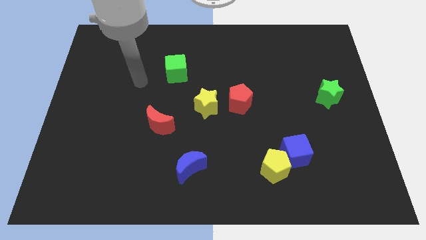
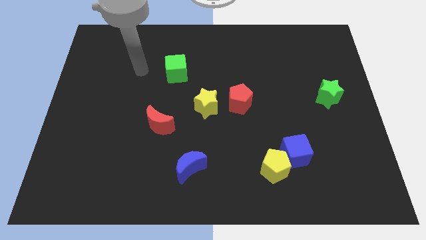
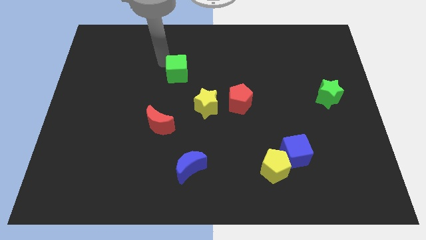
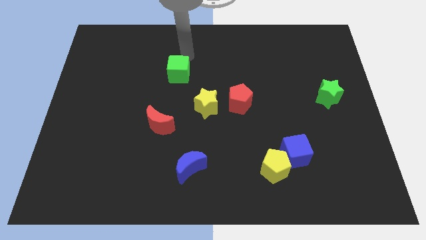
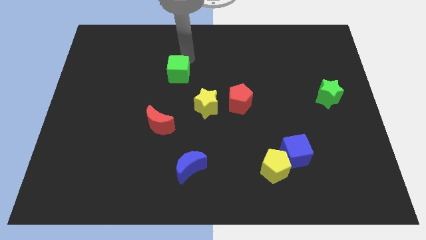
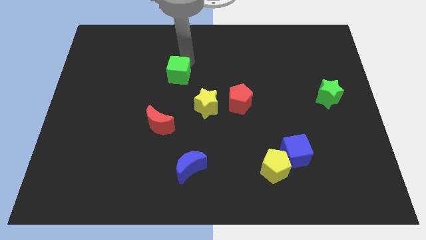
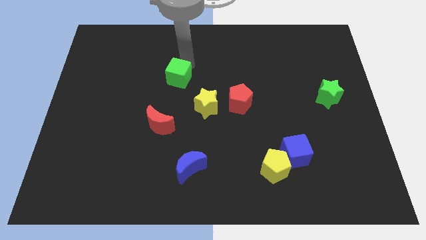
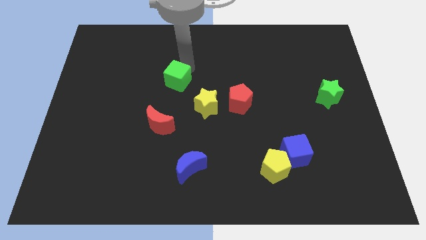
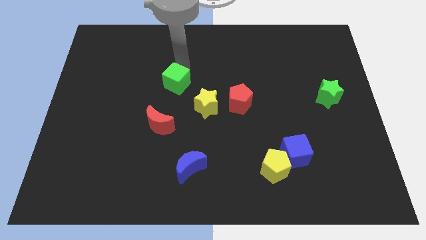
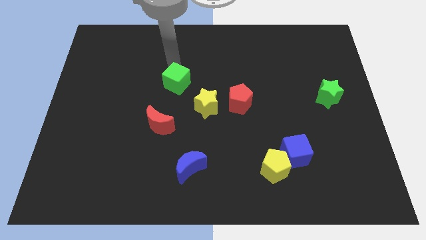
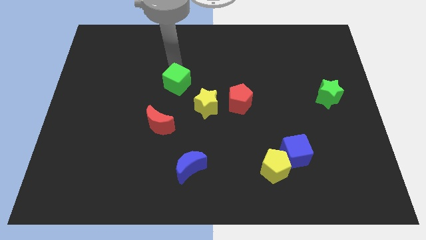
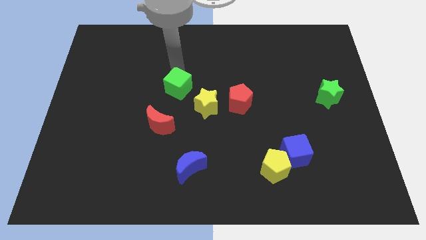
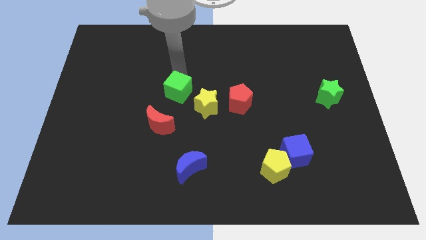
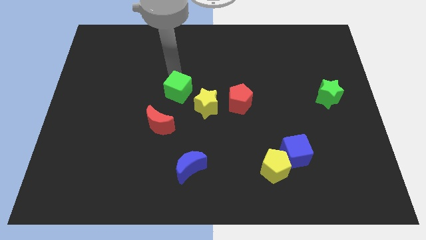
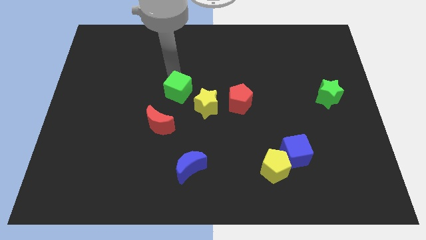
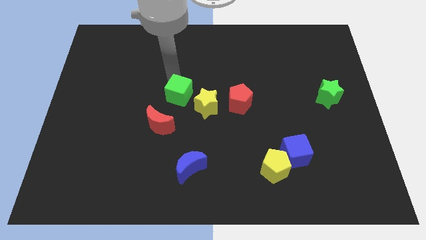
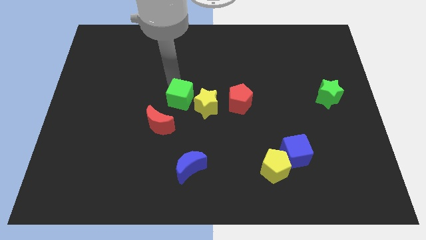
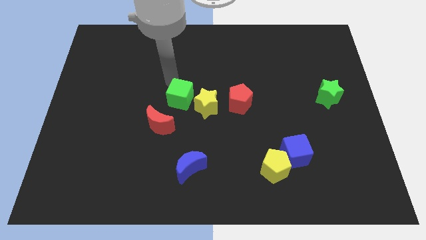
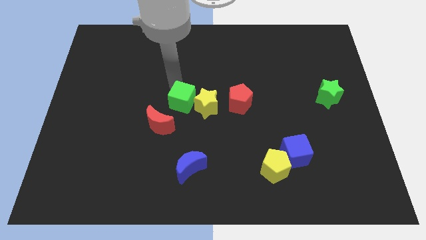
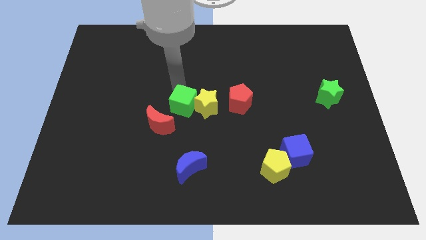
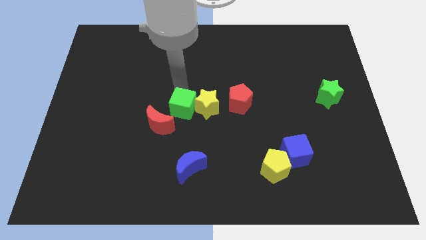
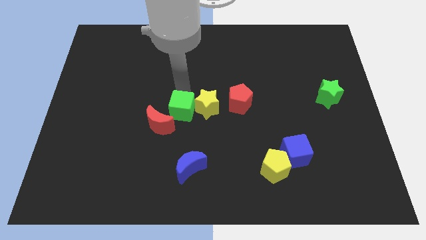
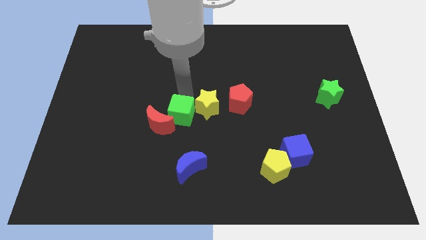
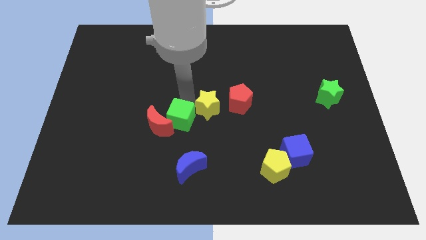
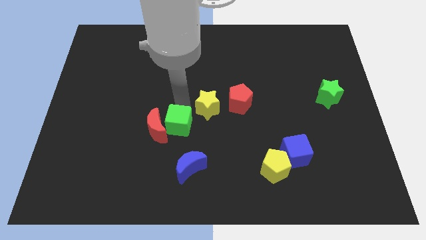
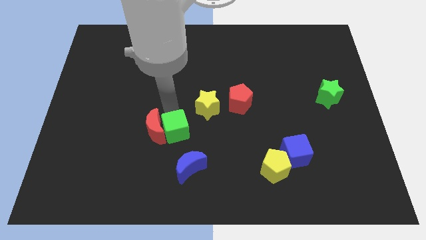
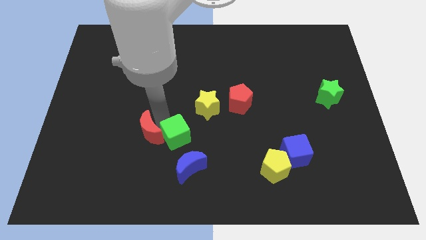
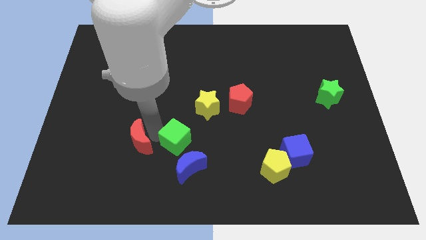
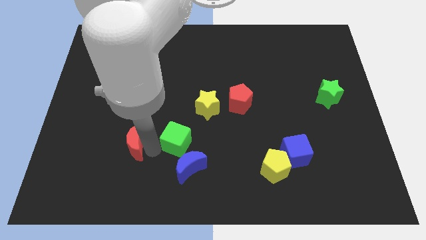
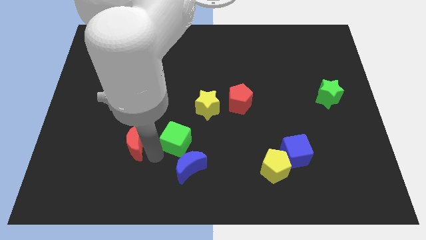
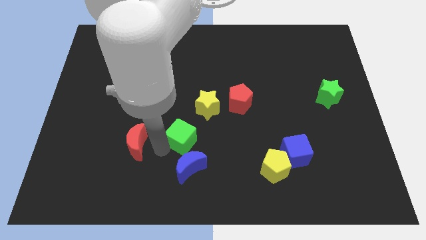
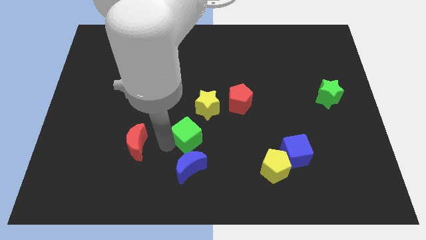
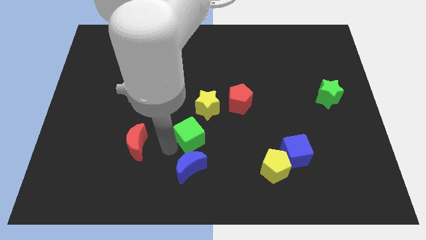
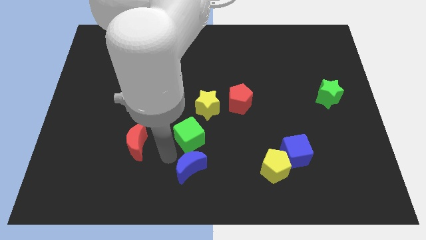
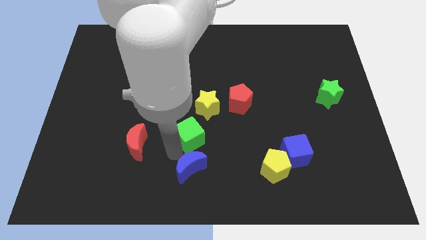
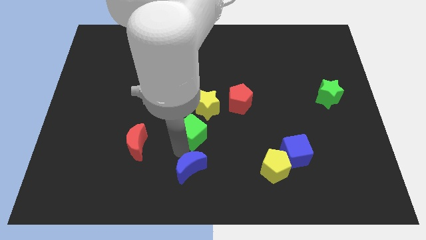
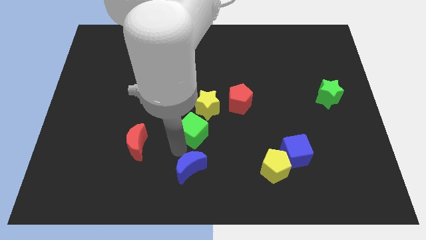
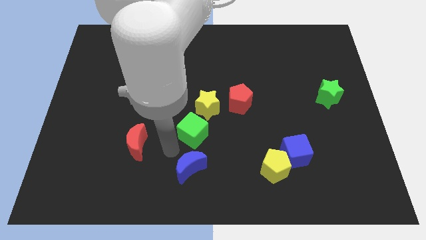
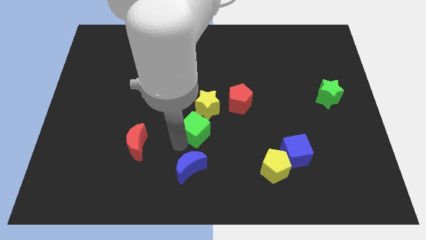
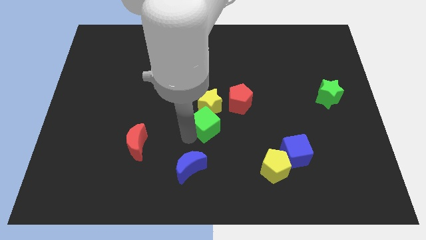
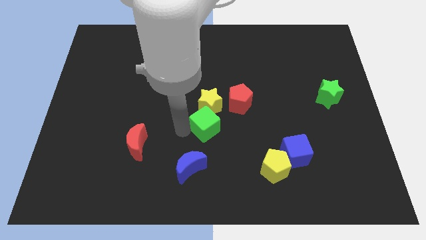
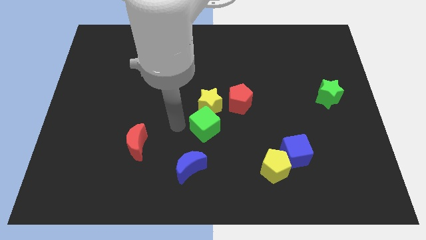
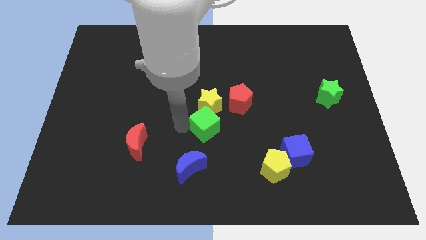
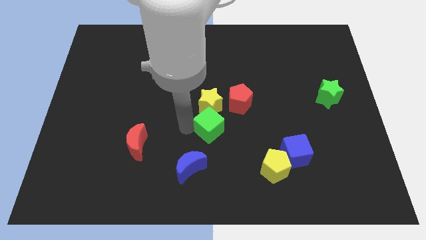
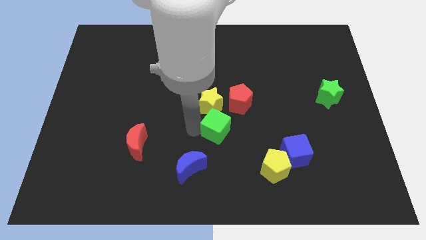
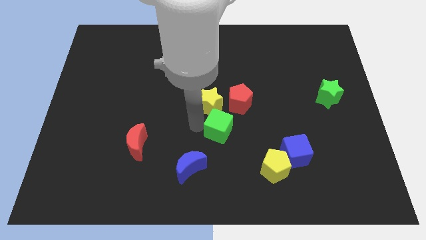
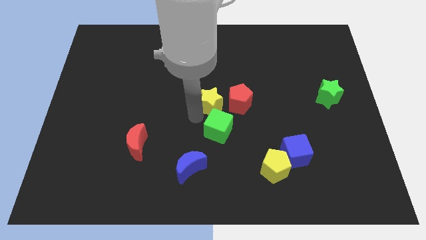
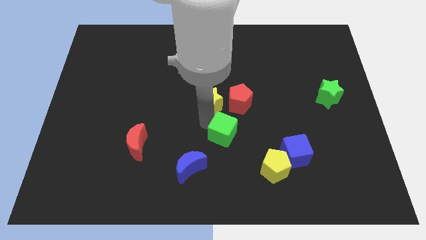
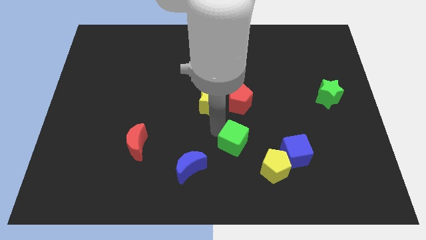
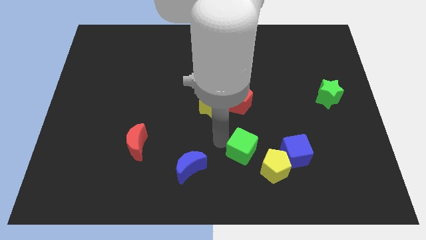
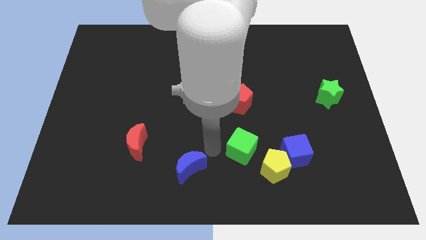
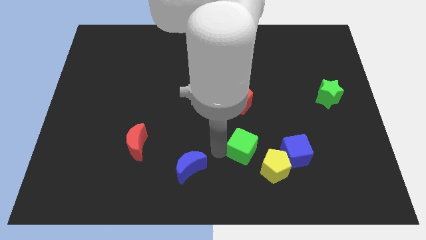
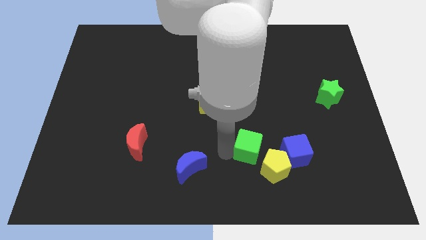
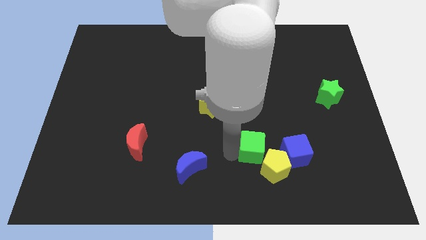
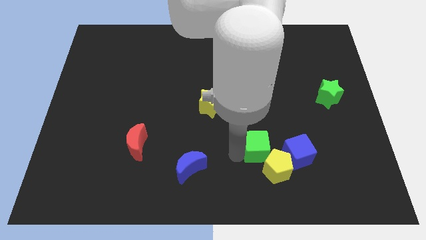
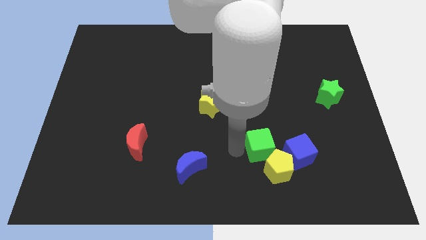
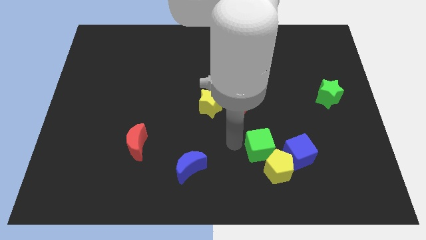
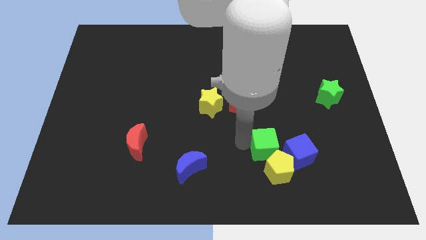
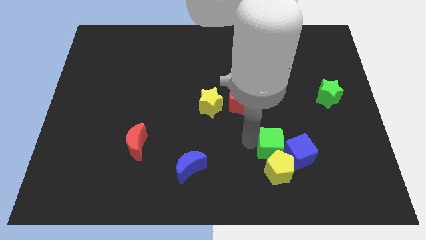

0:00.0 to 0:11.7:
slide the green cube close to the blue cube

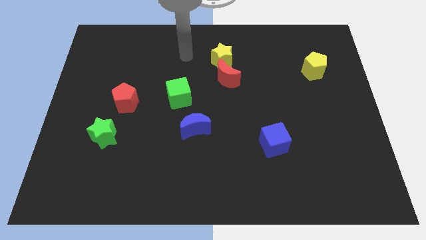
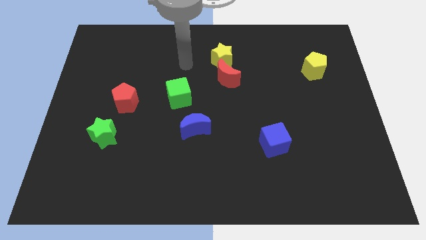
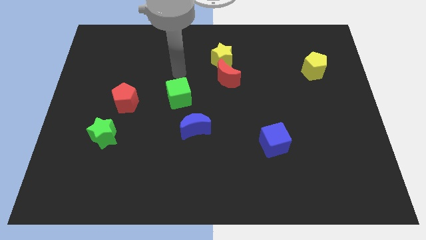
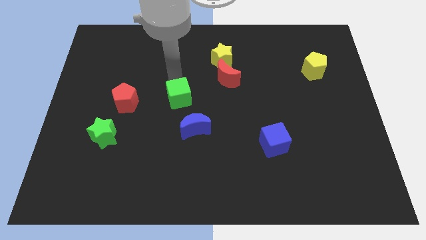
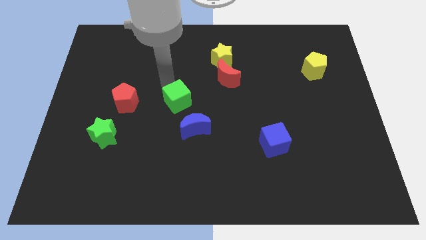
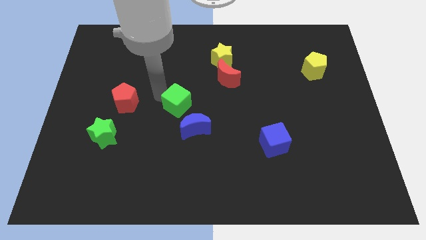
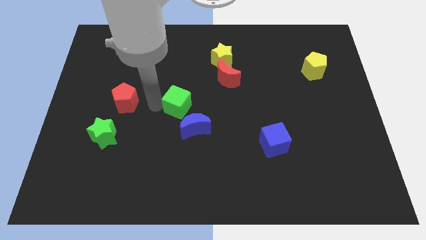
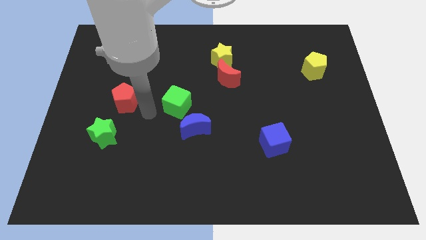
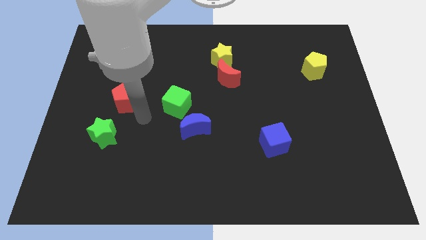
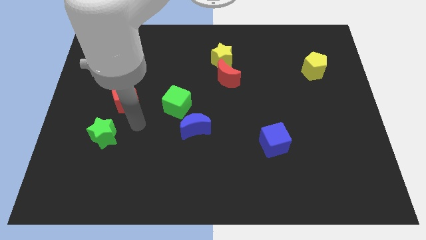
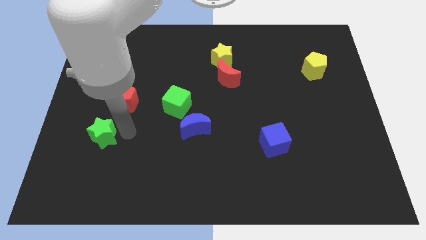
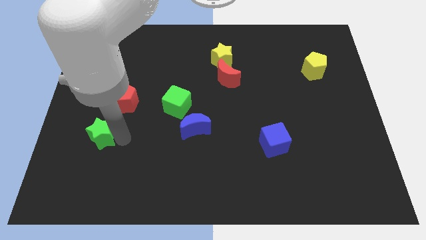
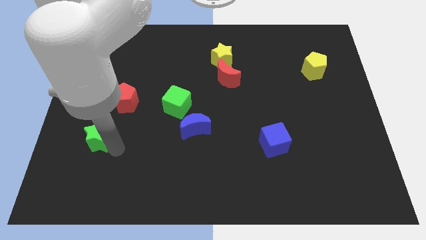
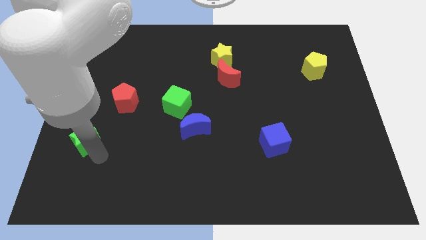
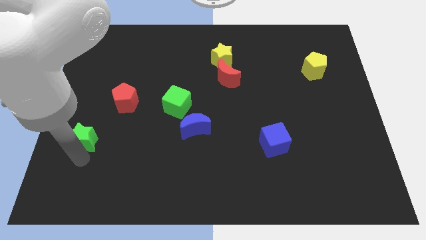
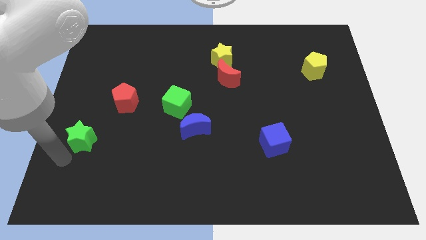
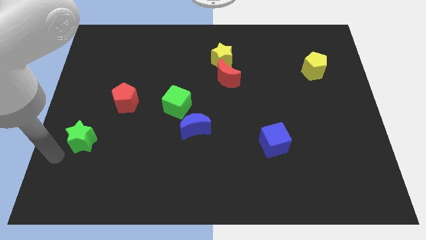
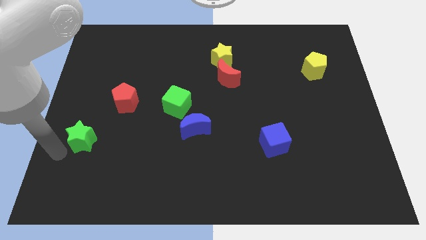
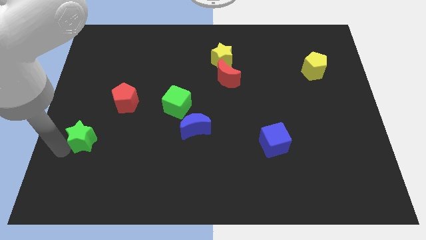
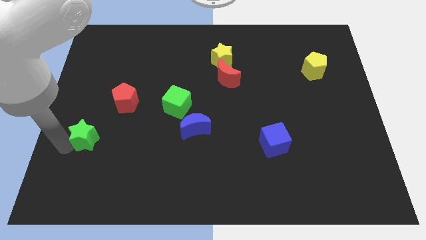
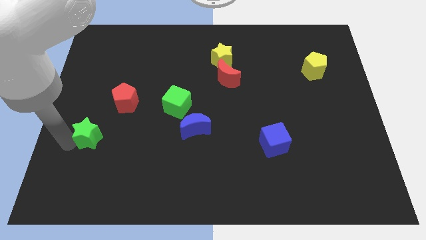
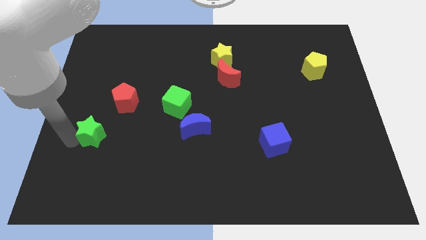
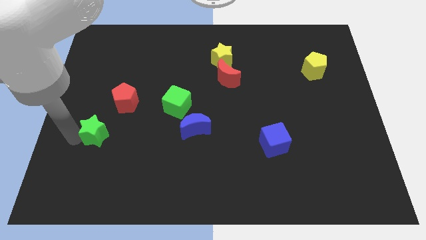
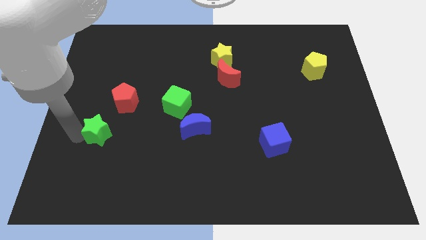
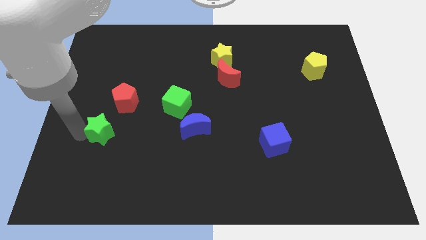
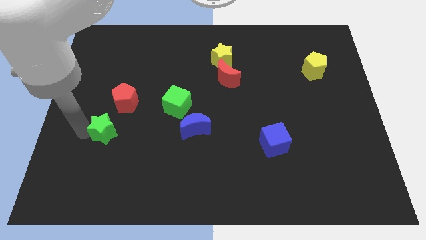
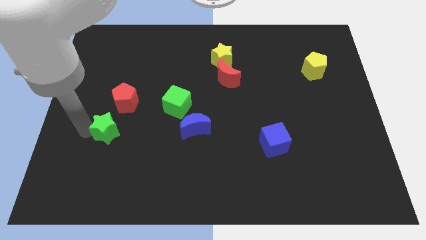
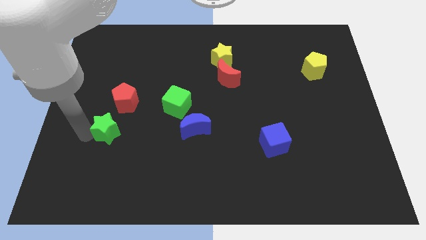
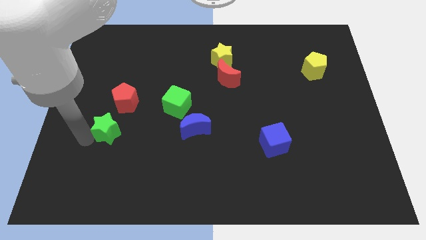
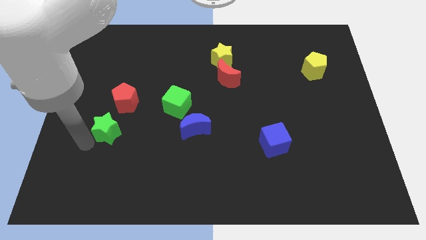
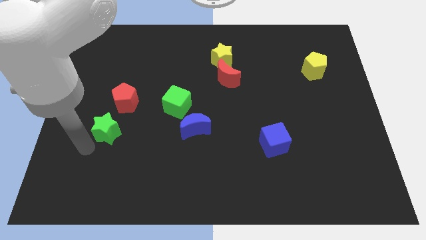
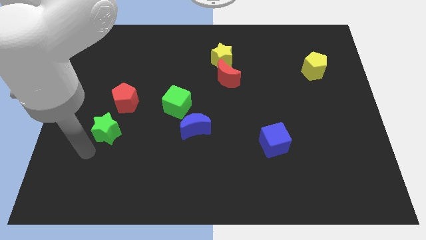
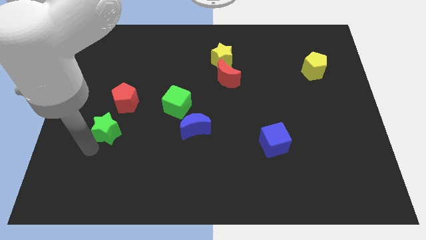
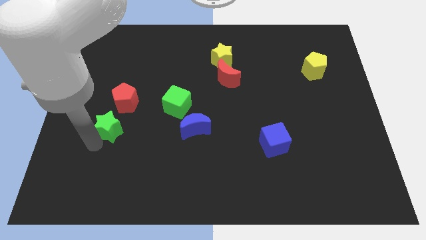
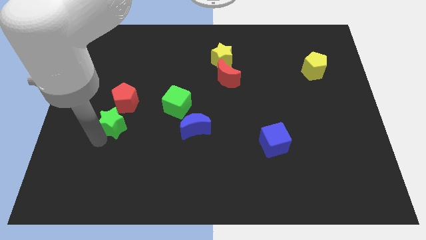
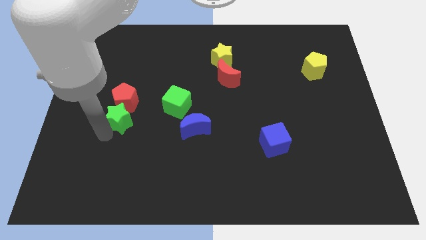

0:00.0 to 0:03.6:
put the green star towards the red pentagon
